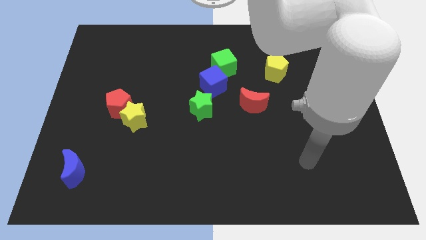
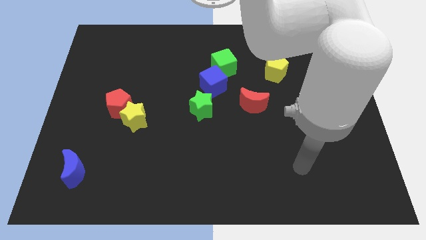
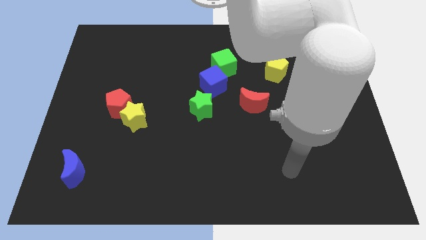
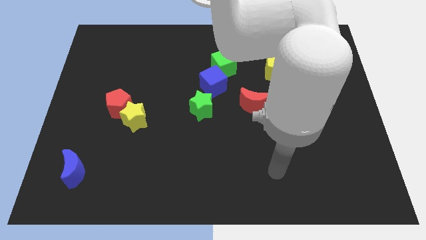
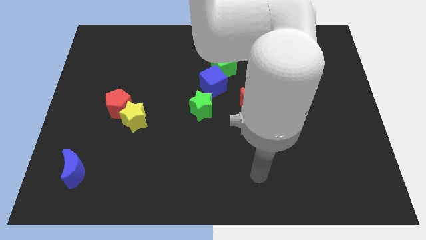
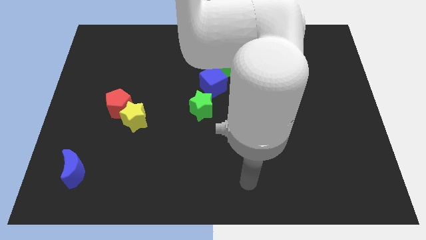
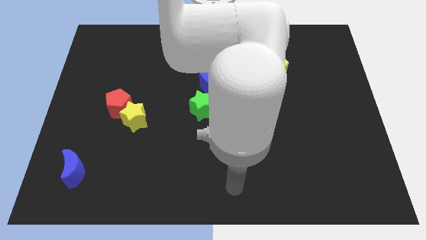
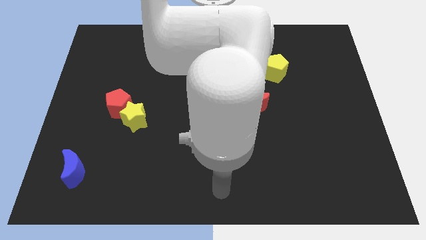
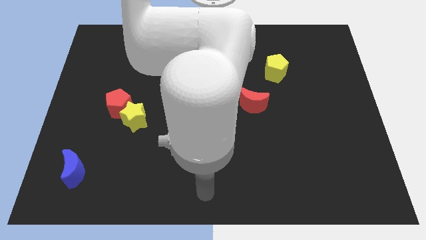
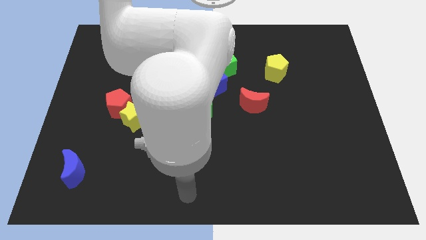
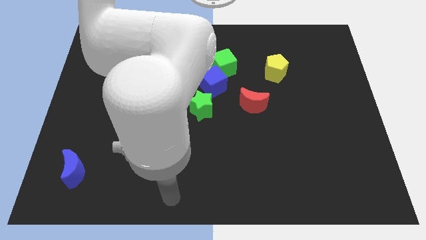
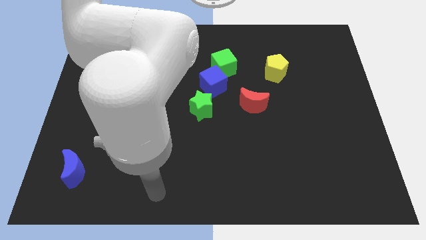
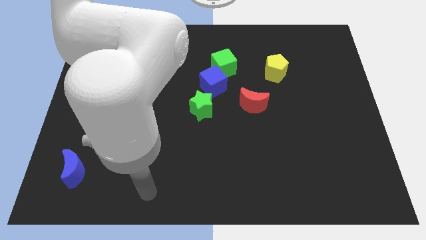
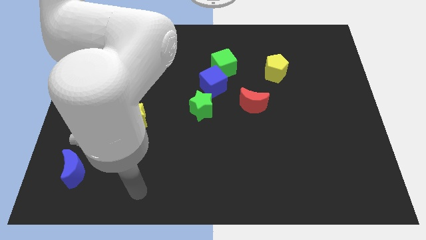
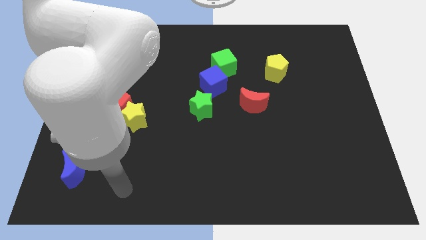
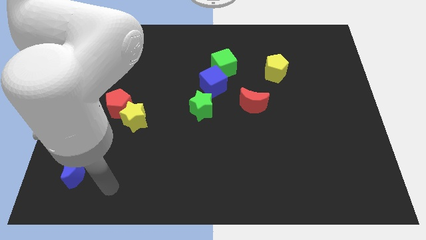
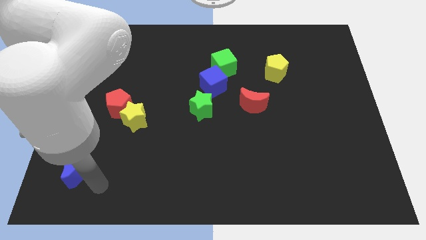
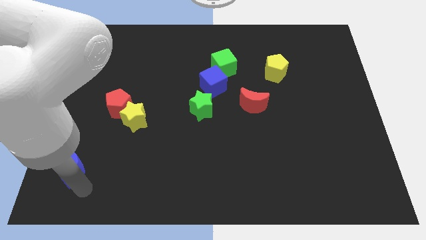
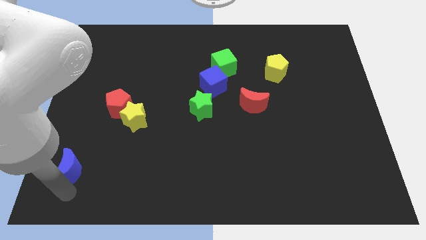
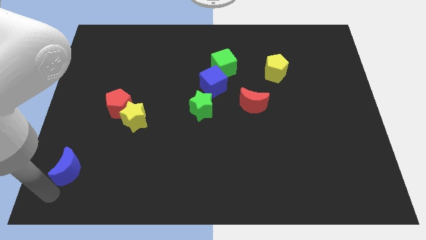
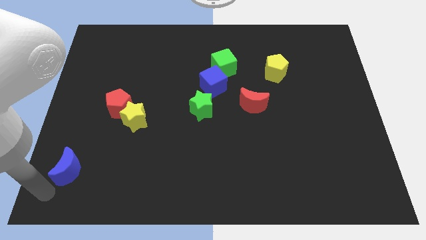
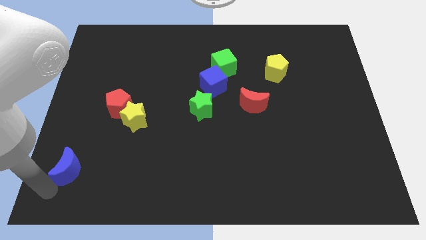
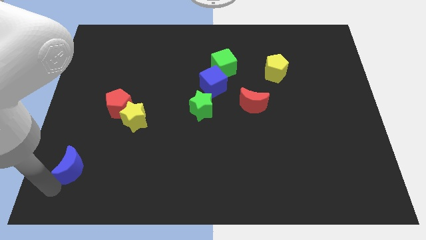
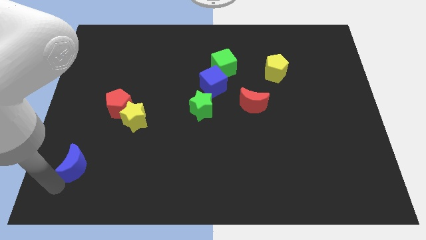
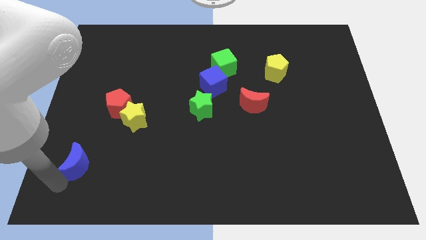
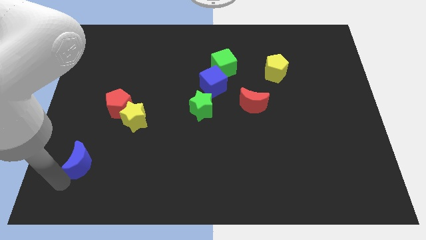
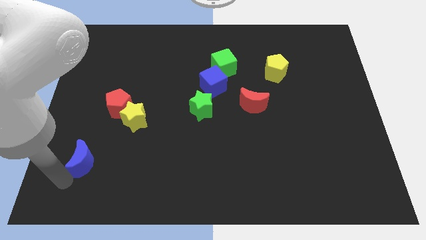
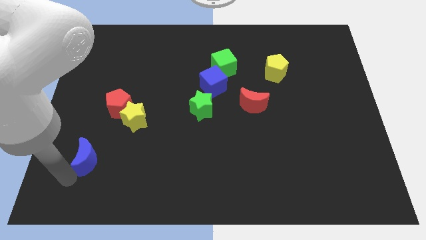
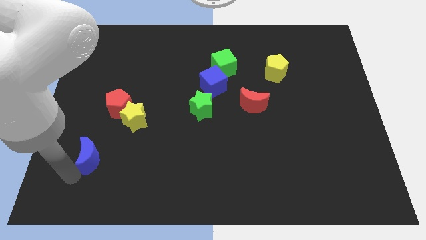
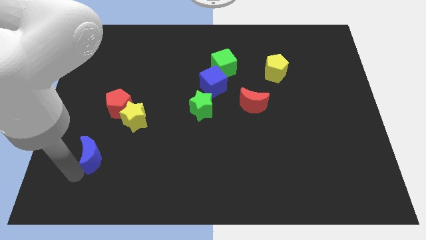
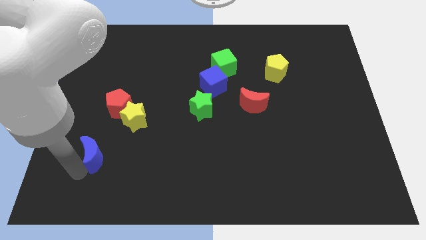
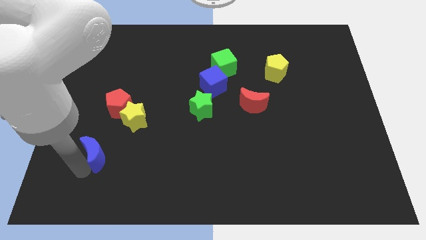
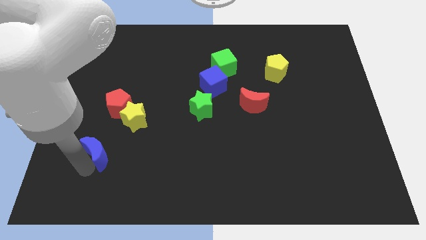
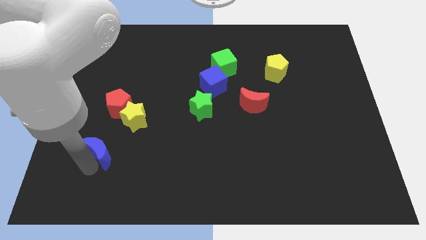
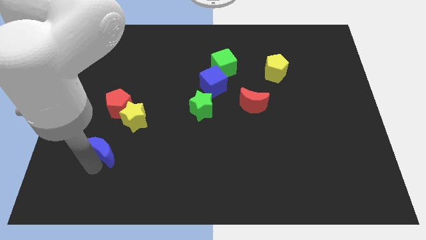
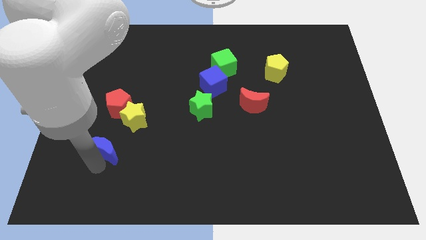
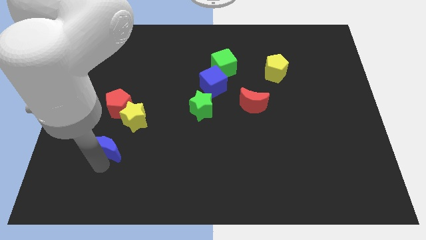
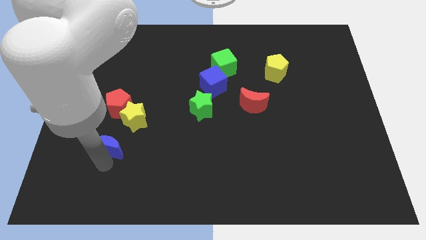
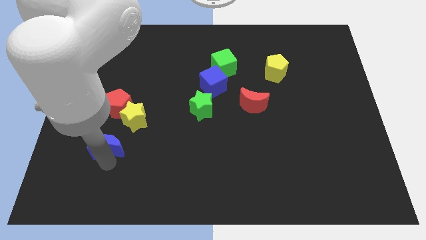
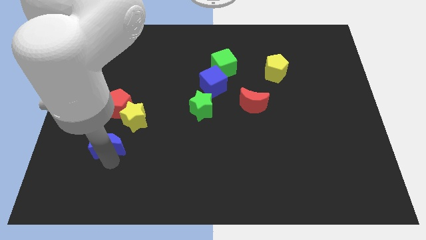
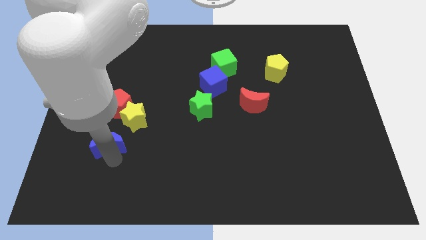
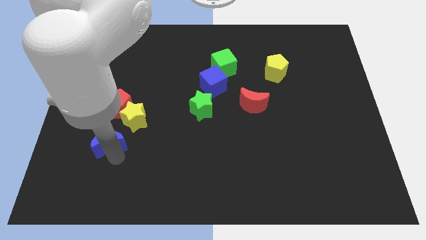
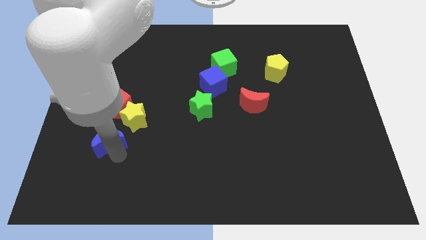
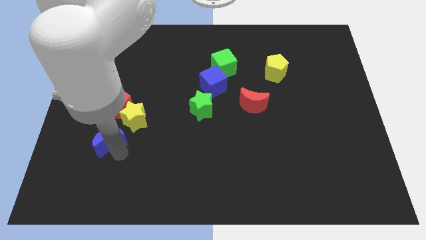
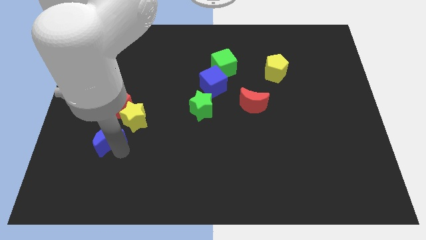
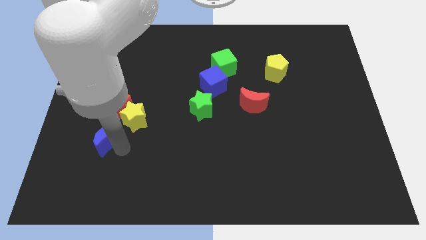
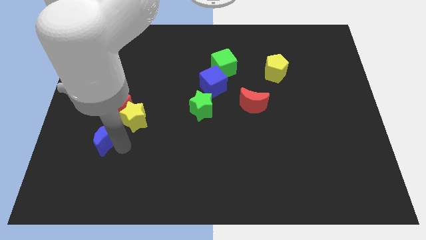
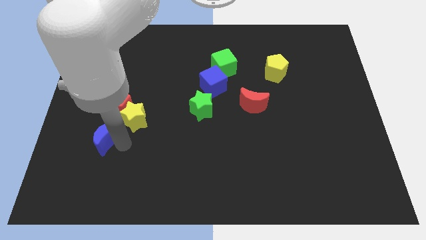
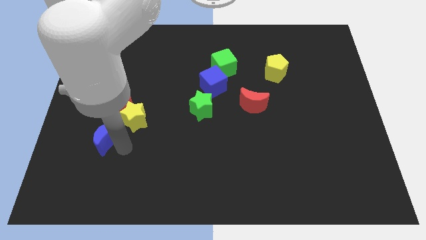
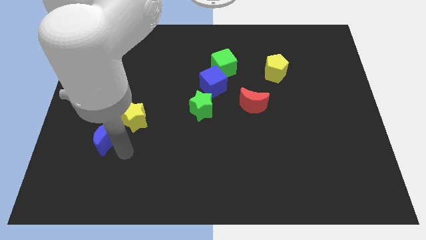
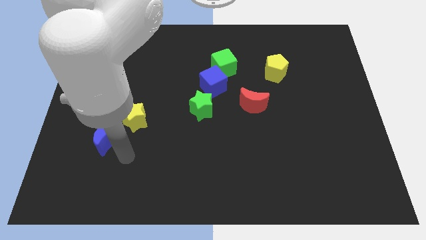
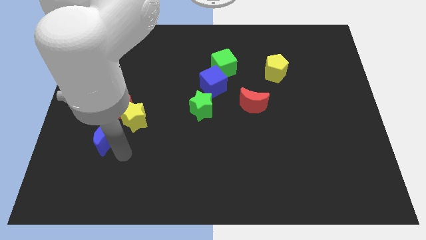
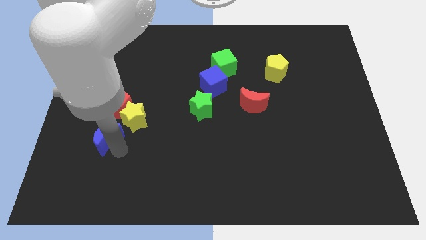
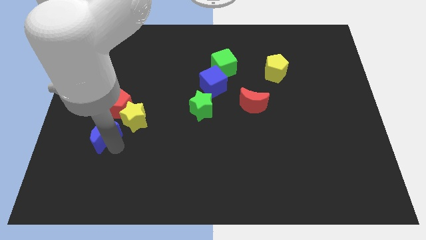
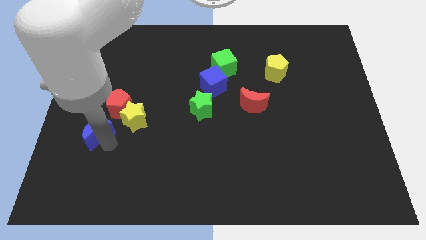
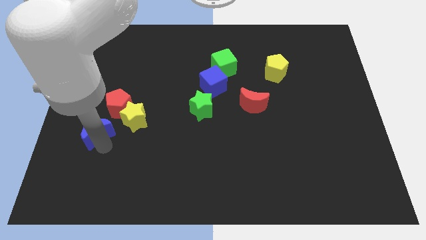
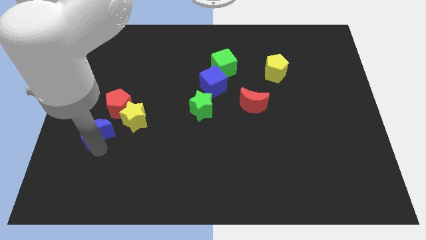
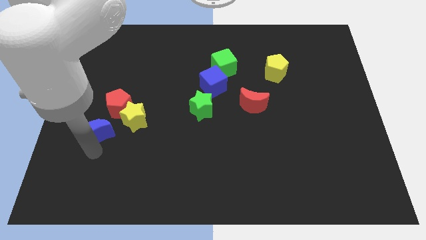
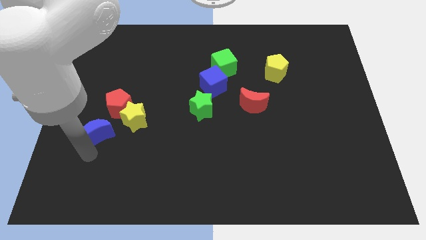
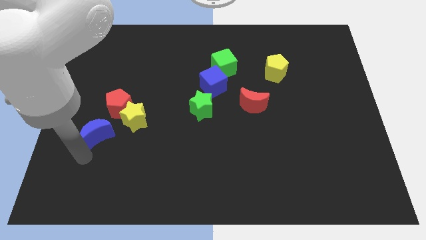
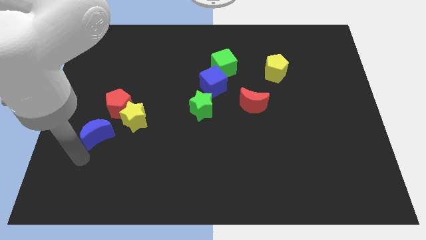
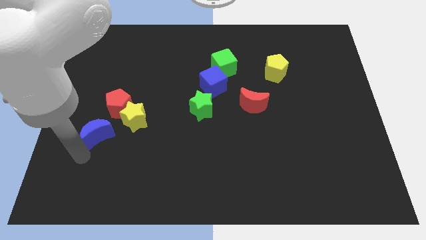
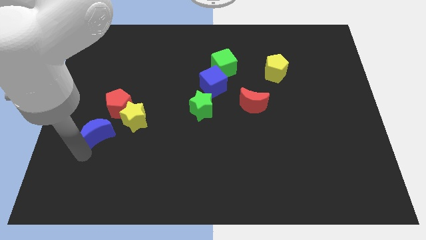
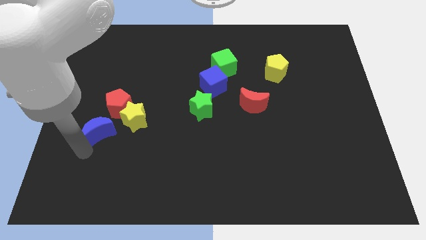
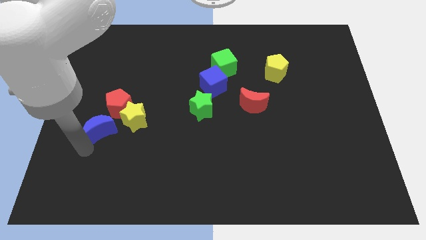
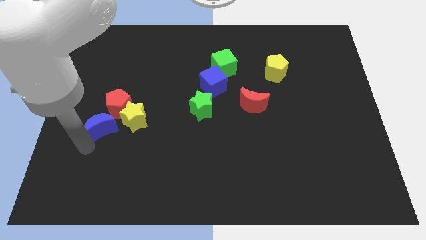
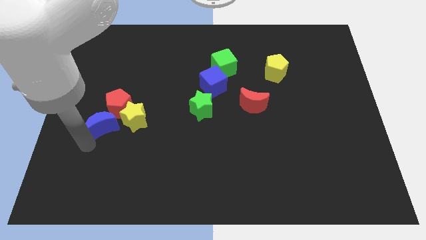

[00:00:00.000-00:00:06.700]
push the blue moon to the red pentagon
